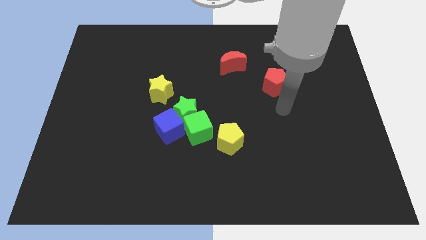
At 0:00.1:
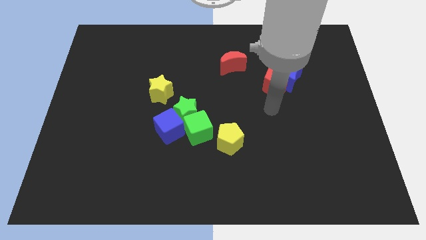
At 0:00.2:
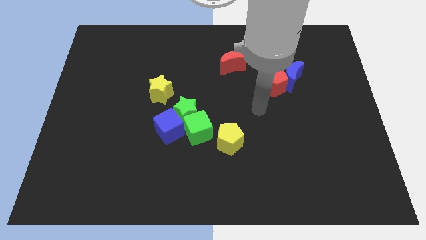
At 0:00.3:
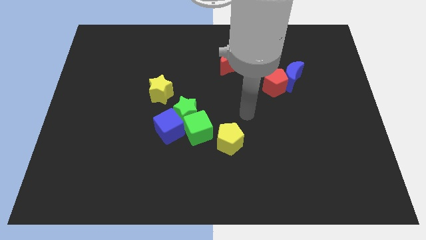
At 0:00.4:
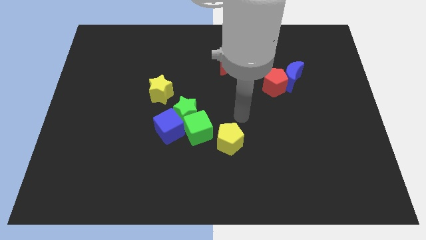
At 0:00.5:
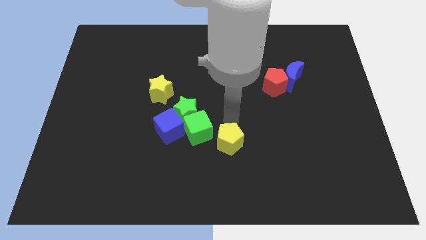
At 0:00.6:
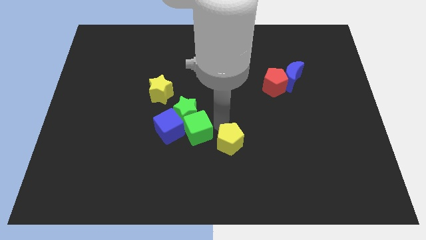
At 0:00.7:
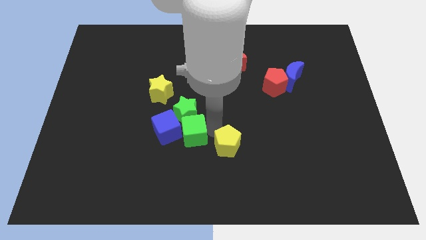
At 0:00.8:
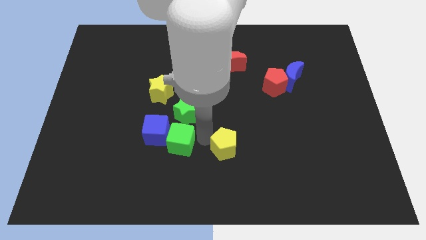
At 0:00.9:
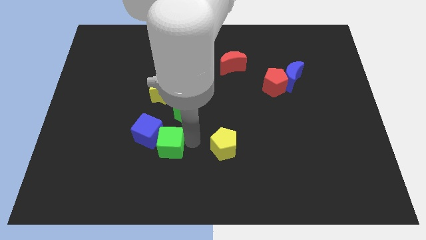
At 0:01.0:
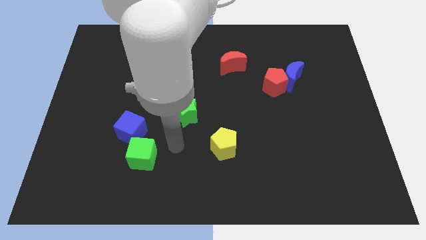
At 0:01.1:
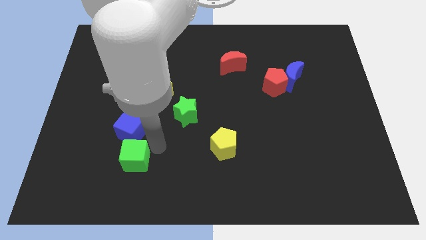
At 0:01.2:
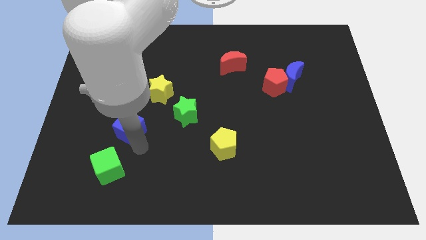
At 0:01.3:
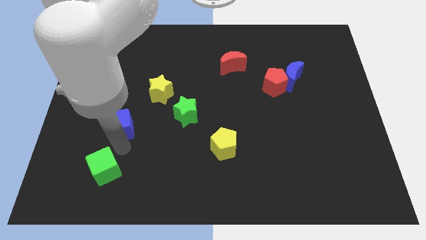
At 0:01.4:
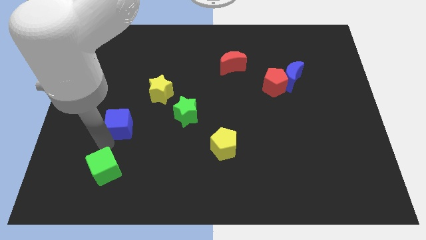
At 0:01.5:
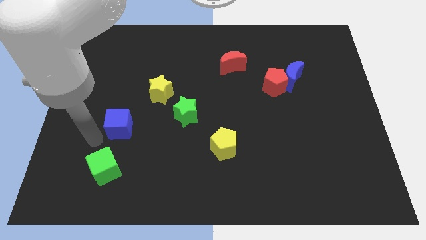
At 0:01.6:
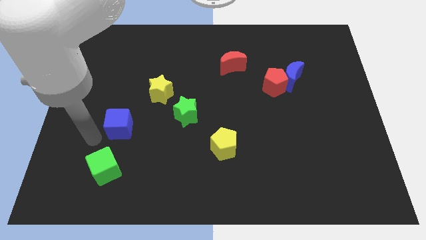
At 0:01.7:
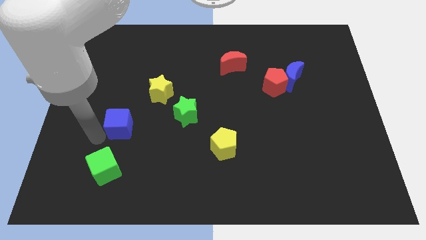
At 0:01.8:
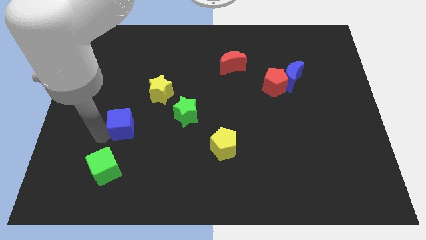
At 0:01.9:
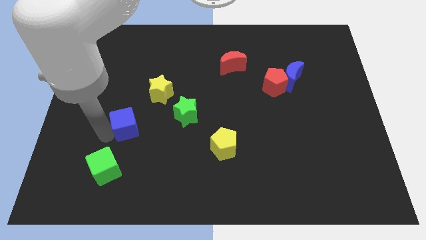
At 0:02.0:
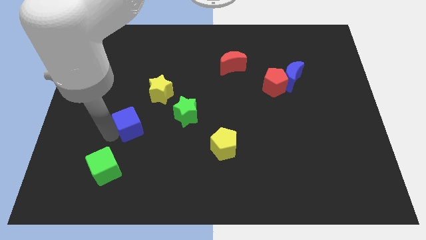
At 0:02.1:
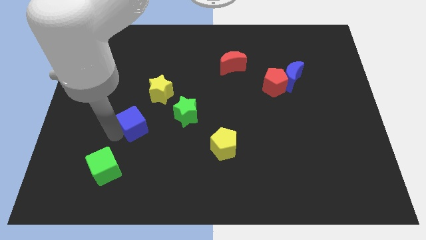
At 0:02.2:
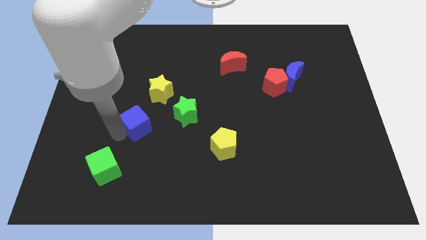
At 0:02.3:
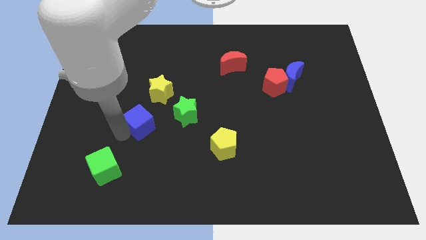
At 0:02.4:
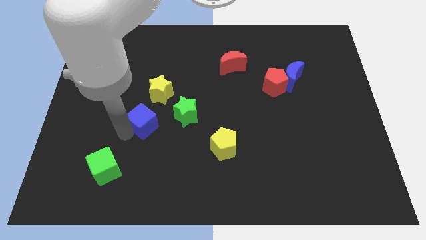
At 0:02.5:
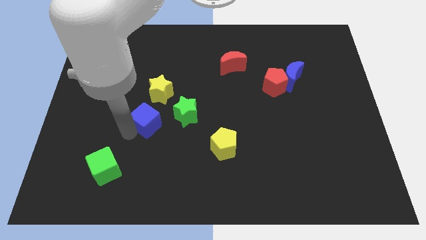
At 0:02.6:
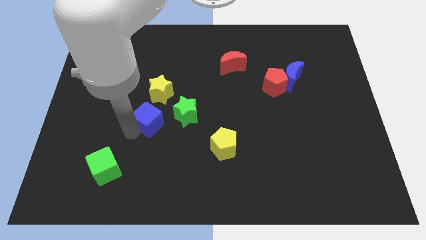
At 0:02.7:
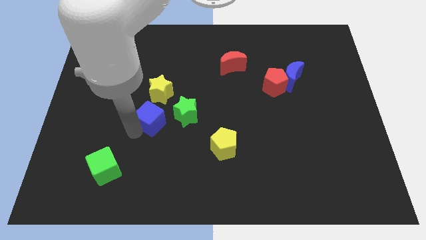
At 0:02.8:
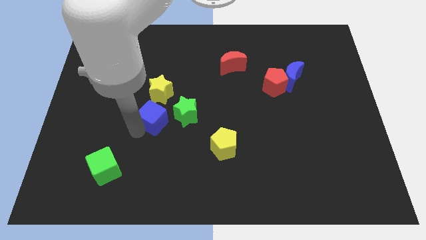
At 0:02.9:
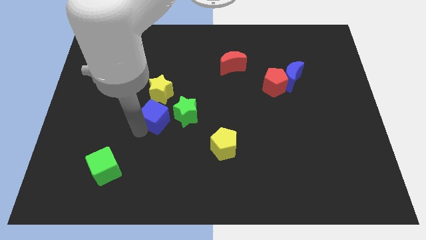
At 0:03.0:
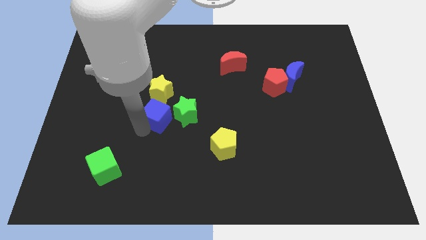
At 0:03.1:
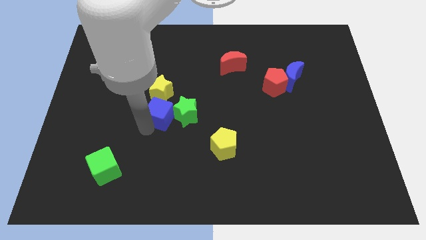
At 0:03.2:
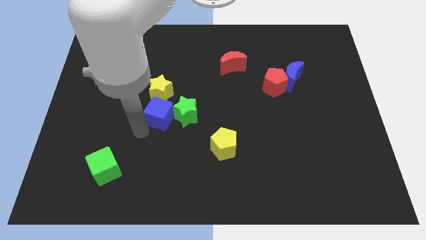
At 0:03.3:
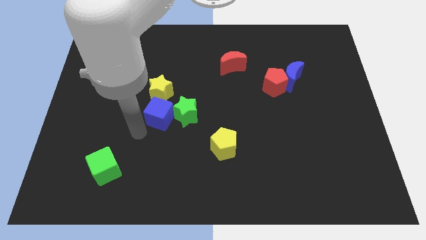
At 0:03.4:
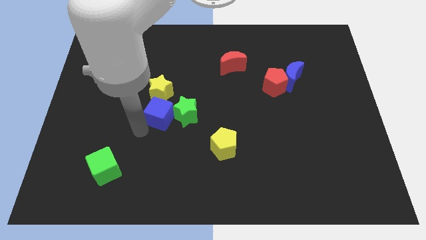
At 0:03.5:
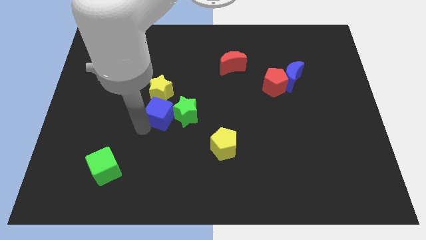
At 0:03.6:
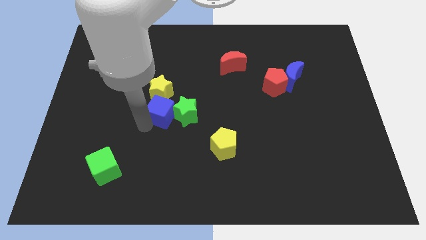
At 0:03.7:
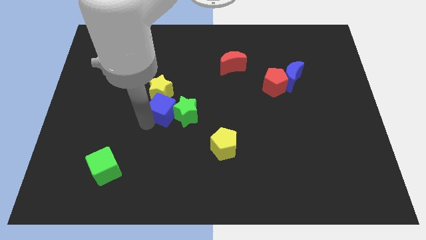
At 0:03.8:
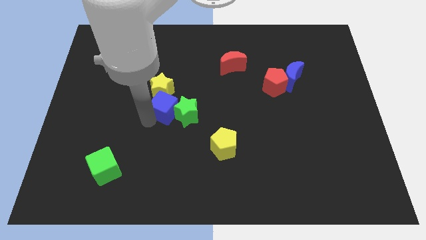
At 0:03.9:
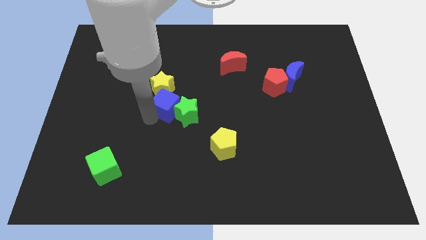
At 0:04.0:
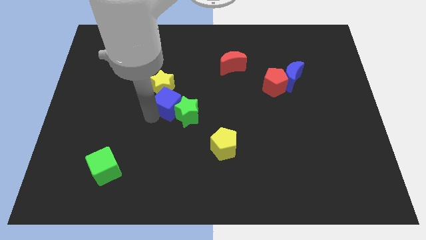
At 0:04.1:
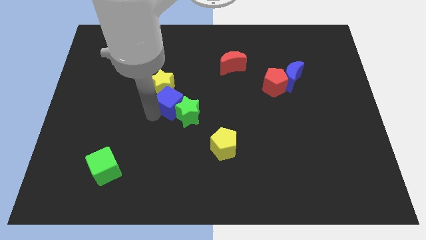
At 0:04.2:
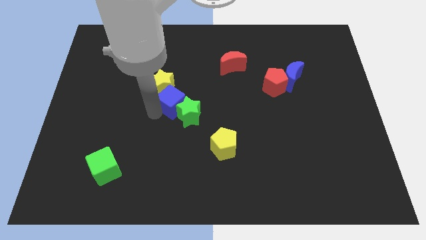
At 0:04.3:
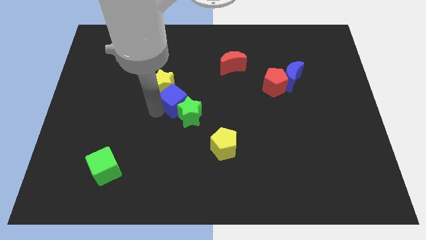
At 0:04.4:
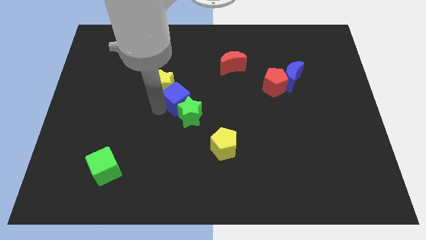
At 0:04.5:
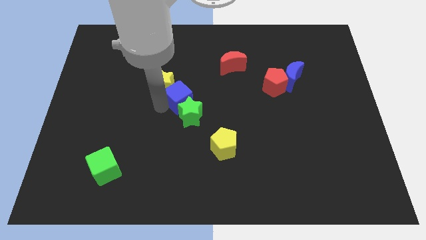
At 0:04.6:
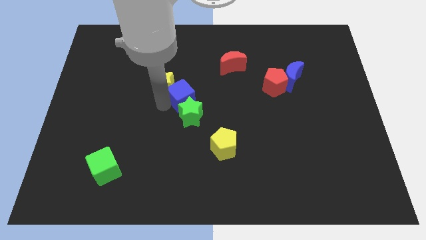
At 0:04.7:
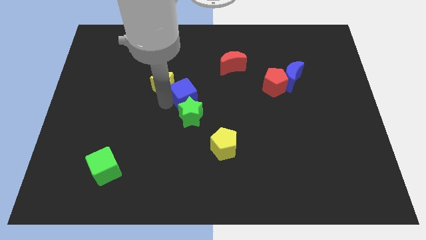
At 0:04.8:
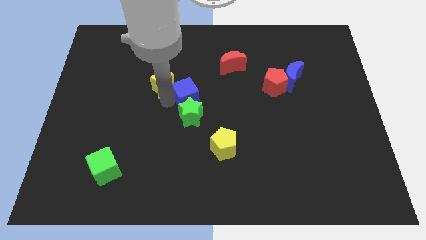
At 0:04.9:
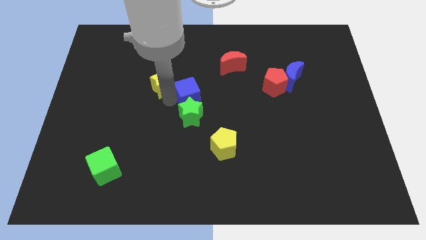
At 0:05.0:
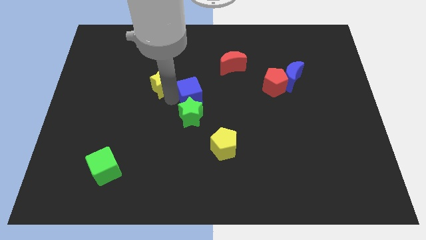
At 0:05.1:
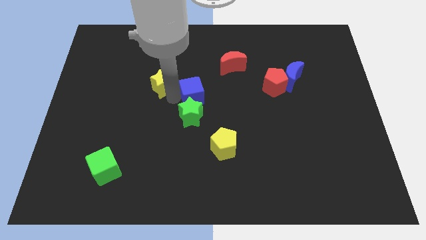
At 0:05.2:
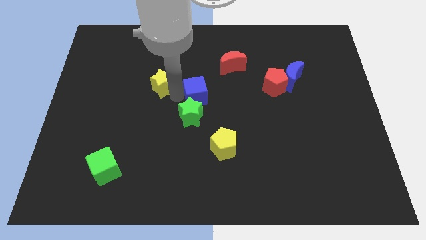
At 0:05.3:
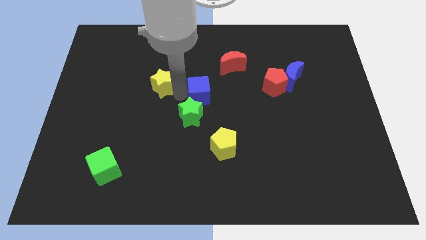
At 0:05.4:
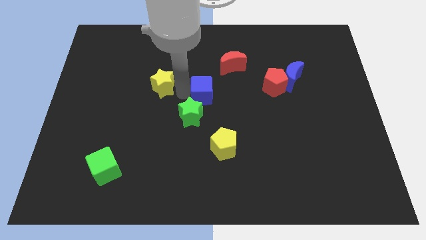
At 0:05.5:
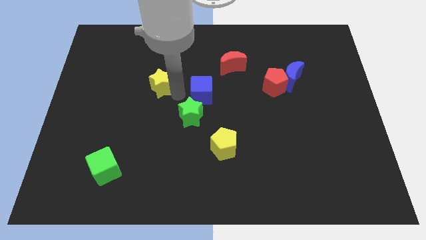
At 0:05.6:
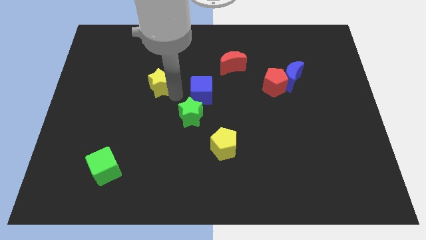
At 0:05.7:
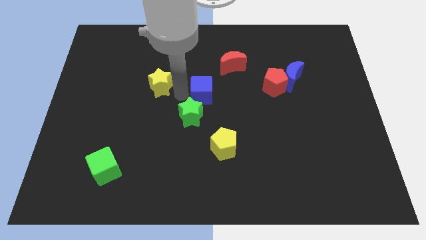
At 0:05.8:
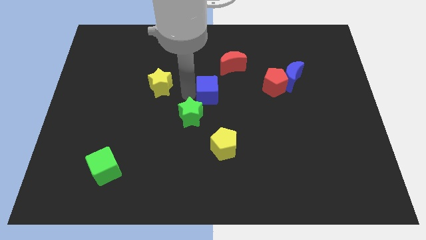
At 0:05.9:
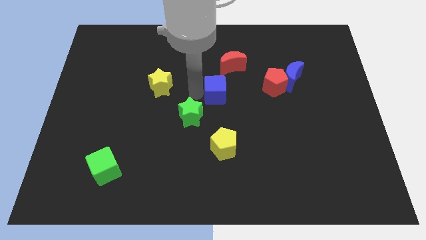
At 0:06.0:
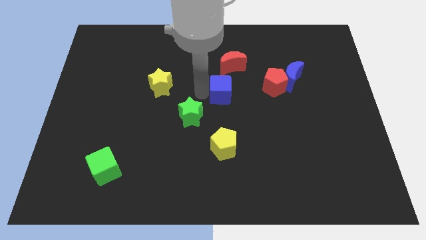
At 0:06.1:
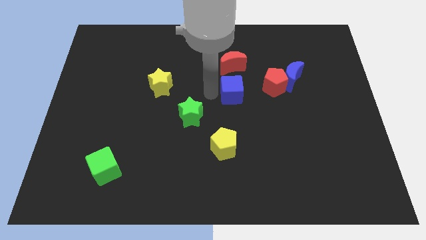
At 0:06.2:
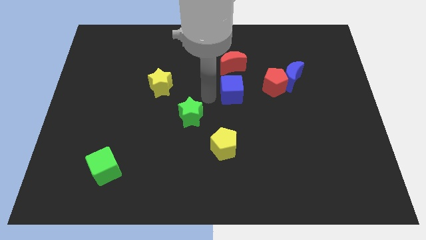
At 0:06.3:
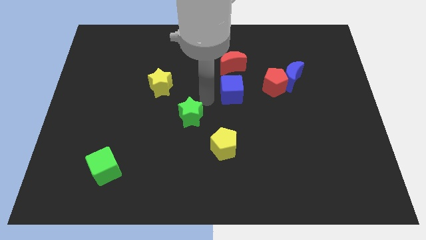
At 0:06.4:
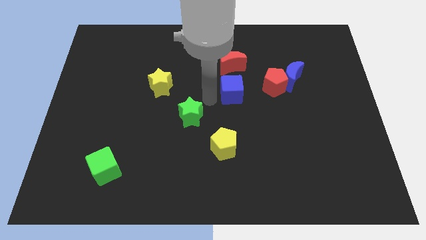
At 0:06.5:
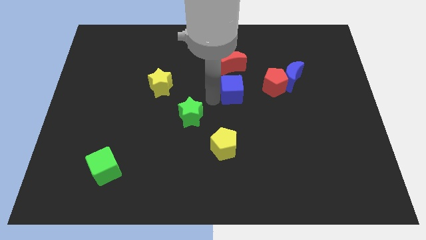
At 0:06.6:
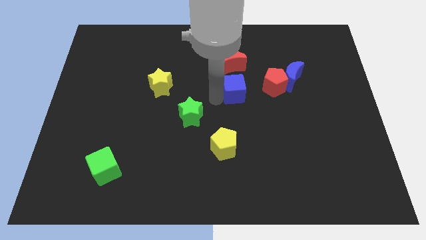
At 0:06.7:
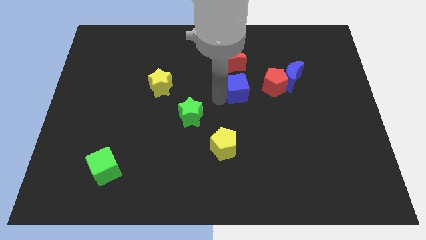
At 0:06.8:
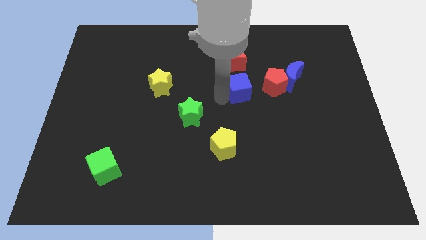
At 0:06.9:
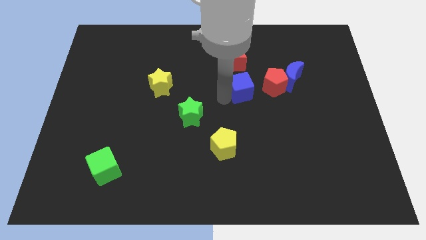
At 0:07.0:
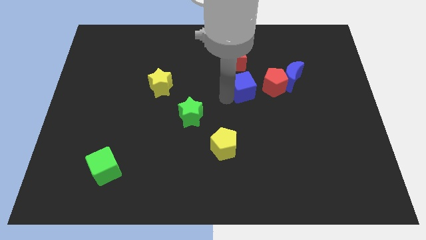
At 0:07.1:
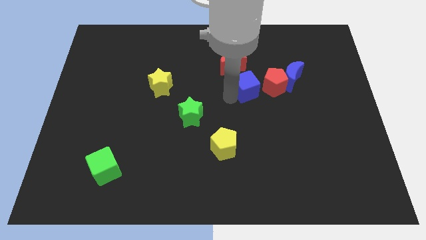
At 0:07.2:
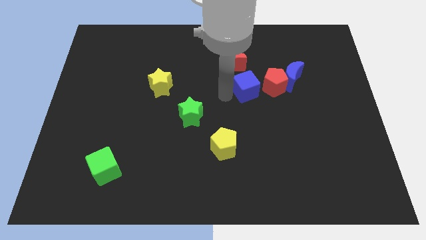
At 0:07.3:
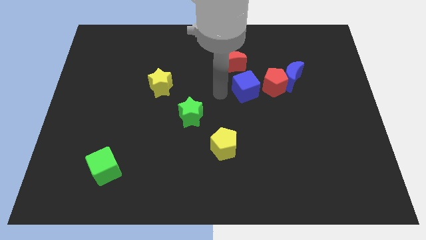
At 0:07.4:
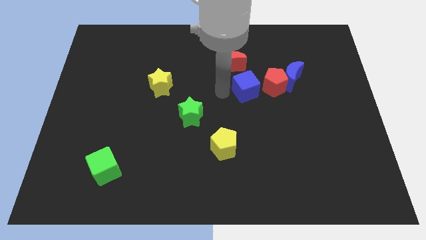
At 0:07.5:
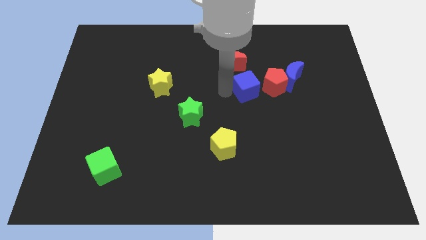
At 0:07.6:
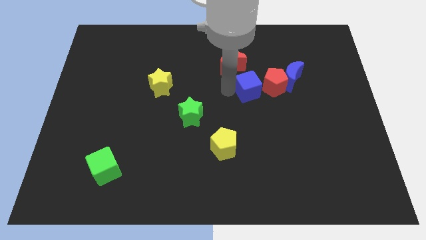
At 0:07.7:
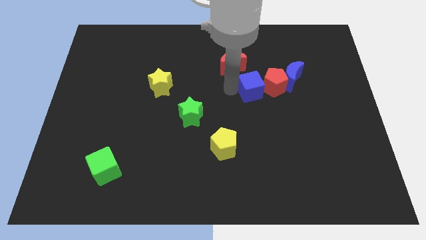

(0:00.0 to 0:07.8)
slide the blue cube to the red pentagon

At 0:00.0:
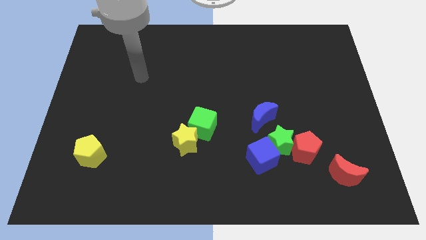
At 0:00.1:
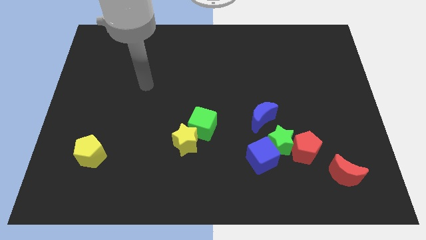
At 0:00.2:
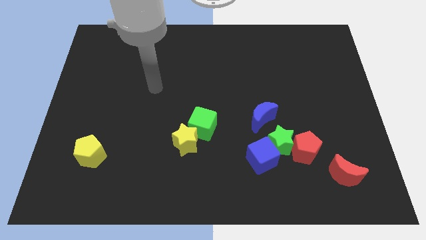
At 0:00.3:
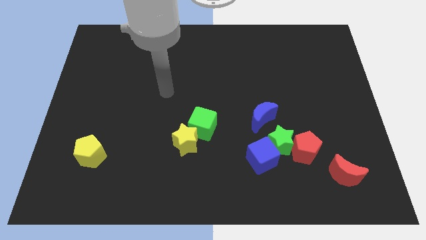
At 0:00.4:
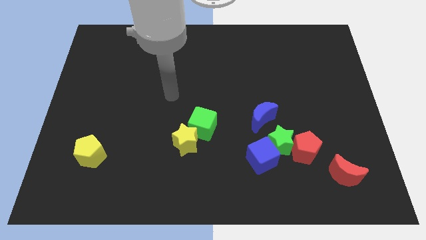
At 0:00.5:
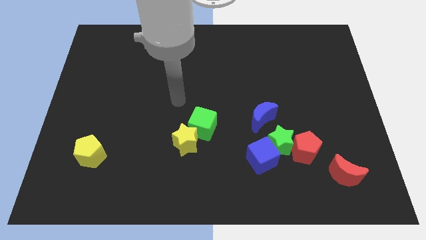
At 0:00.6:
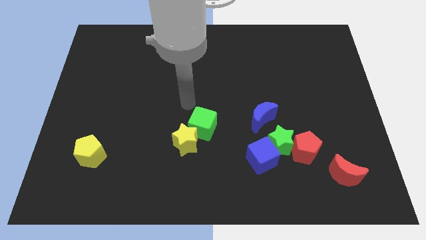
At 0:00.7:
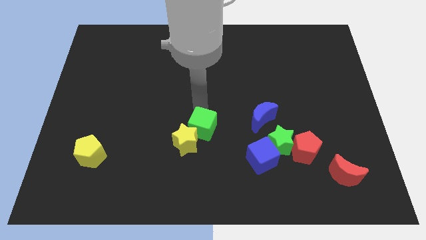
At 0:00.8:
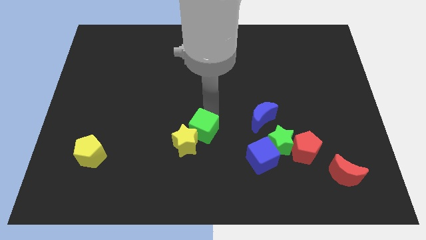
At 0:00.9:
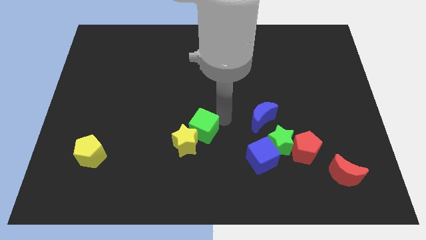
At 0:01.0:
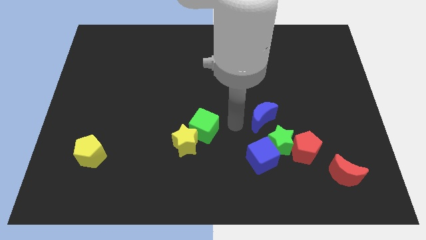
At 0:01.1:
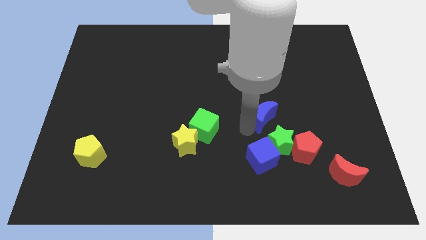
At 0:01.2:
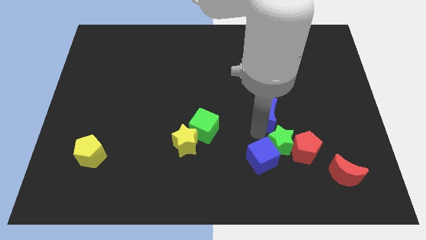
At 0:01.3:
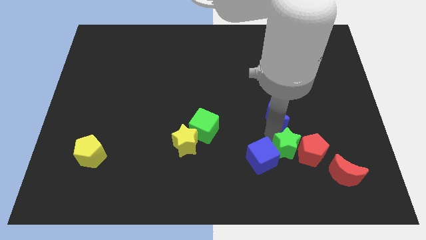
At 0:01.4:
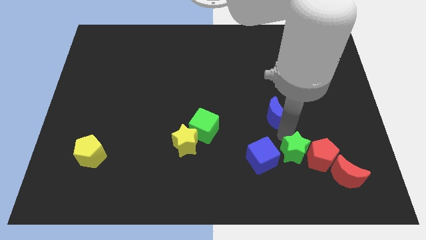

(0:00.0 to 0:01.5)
slide the red pentagon towards the red moon
